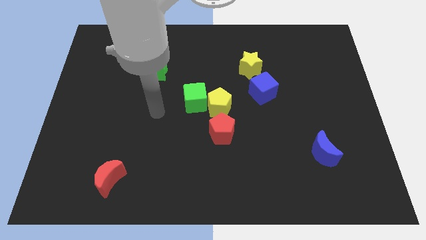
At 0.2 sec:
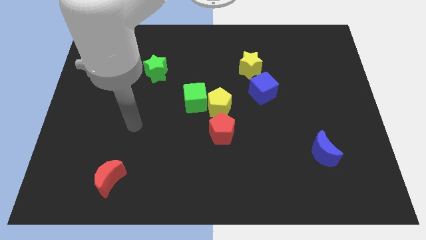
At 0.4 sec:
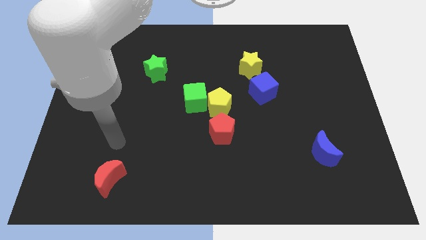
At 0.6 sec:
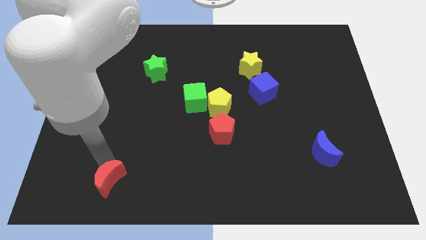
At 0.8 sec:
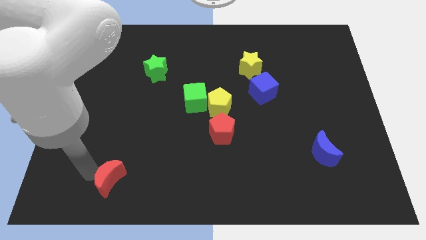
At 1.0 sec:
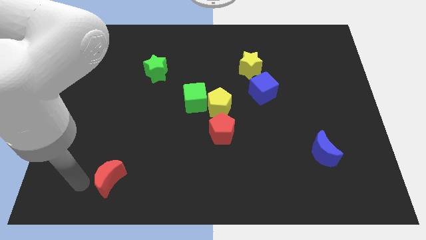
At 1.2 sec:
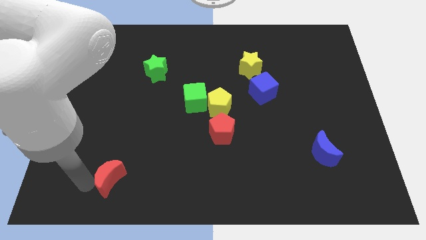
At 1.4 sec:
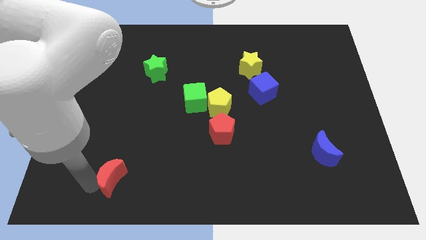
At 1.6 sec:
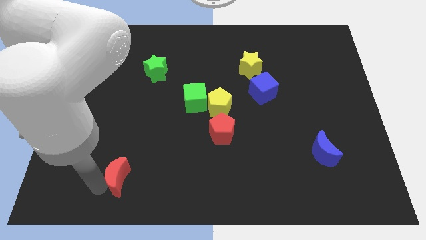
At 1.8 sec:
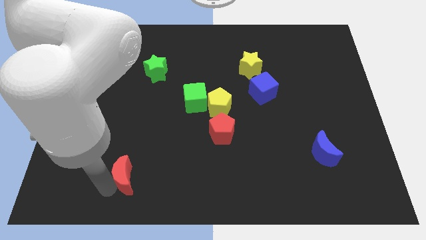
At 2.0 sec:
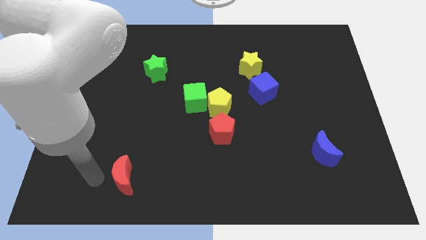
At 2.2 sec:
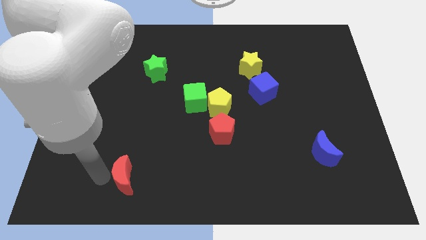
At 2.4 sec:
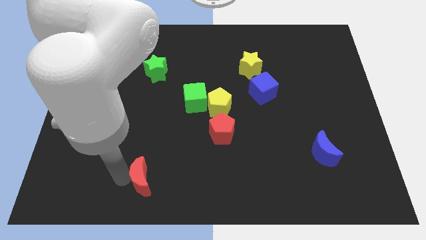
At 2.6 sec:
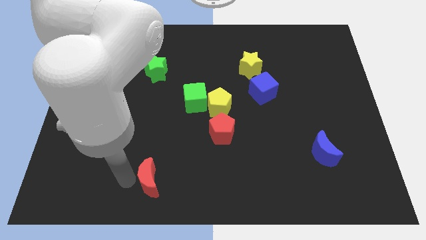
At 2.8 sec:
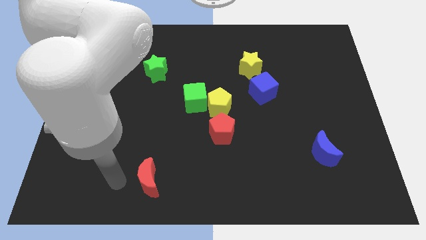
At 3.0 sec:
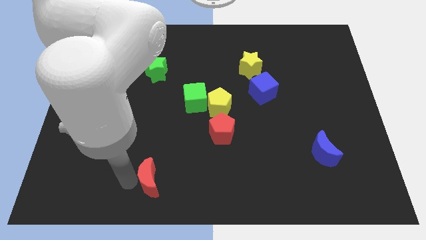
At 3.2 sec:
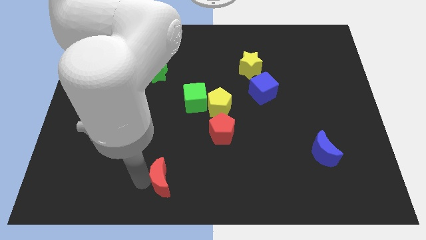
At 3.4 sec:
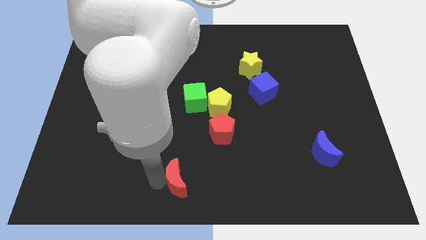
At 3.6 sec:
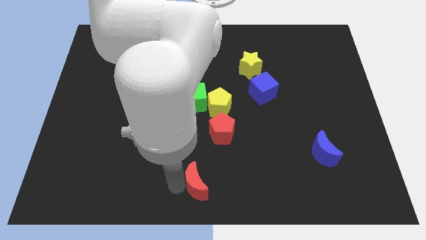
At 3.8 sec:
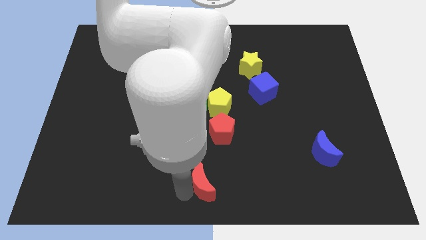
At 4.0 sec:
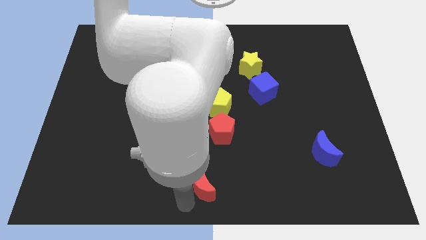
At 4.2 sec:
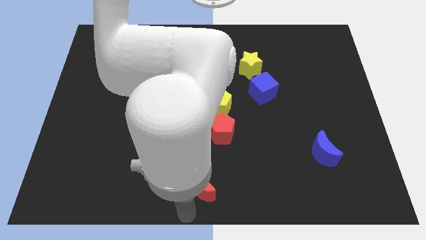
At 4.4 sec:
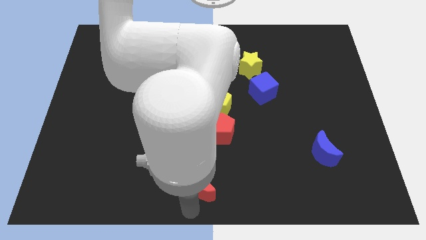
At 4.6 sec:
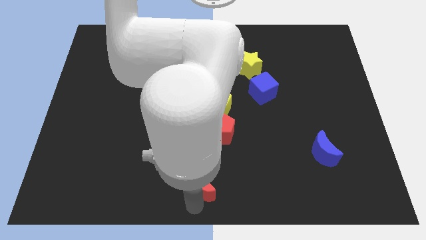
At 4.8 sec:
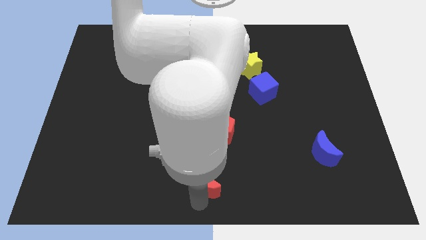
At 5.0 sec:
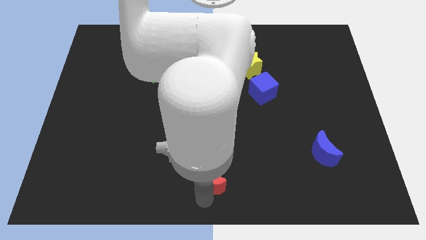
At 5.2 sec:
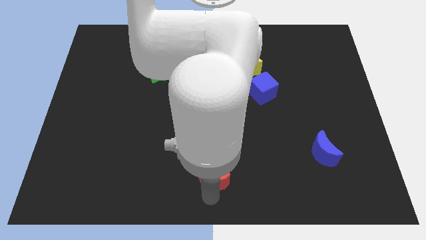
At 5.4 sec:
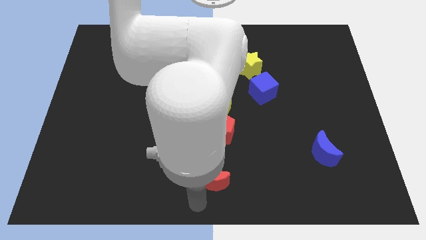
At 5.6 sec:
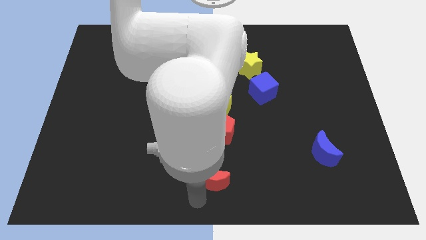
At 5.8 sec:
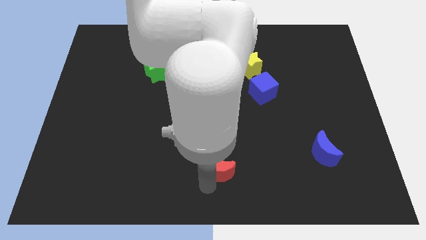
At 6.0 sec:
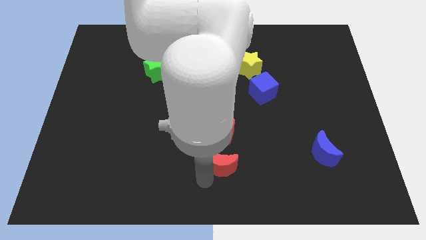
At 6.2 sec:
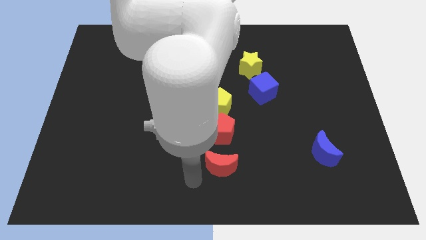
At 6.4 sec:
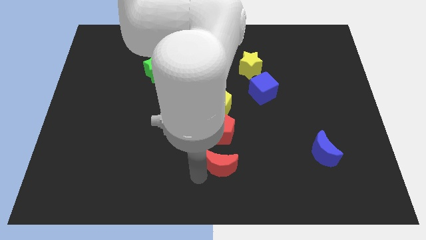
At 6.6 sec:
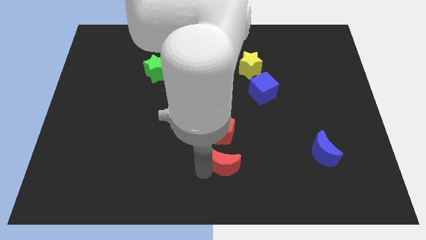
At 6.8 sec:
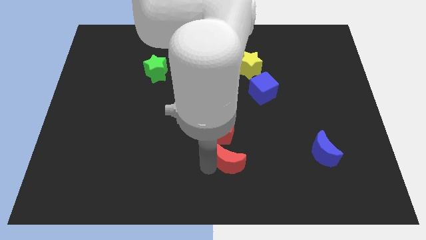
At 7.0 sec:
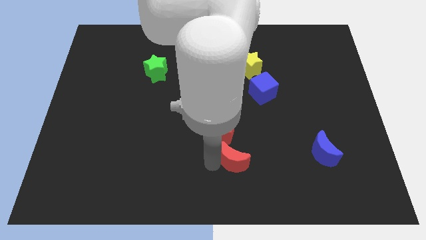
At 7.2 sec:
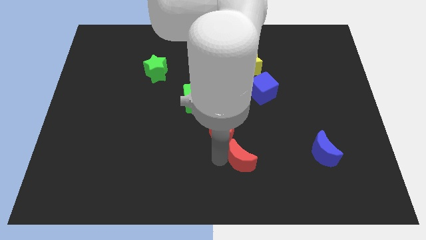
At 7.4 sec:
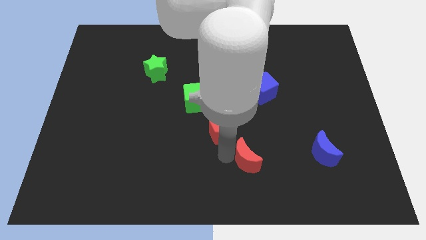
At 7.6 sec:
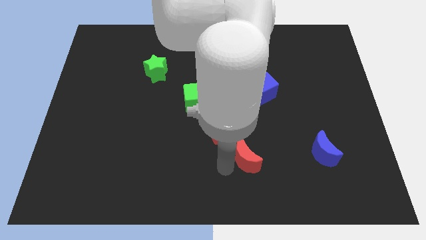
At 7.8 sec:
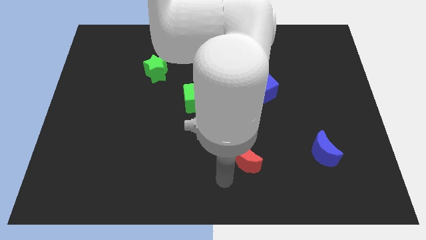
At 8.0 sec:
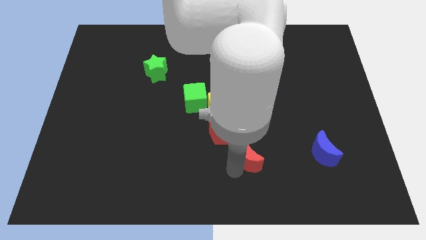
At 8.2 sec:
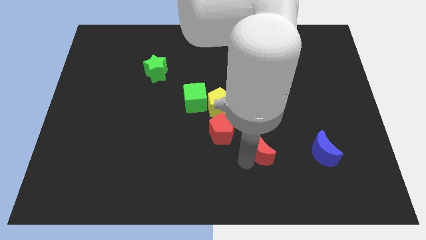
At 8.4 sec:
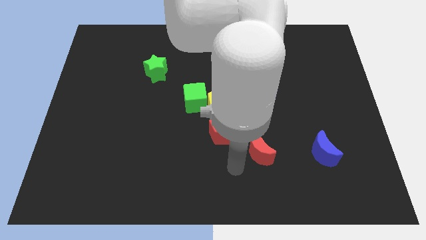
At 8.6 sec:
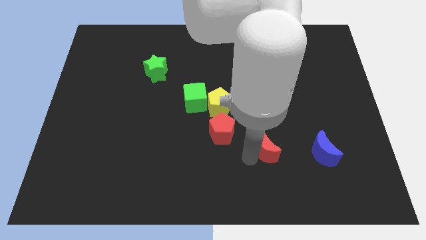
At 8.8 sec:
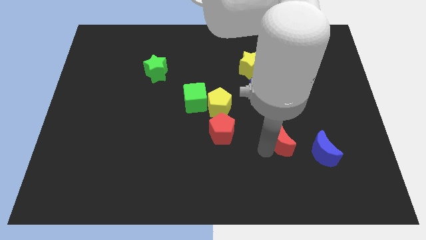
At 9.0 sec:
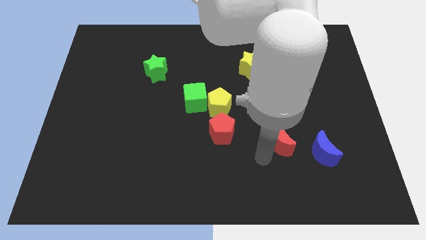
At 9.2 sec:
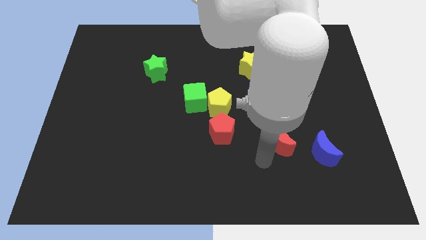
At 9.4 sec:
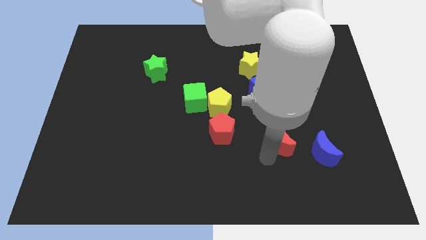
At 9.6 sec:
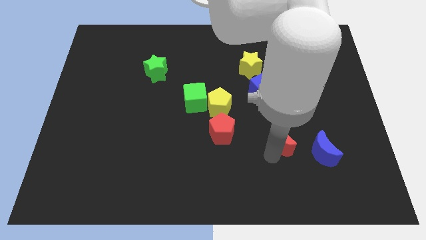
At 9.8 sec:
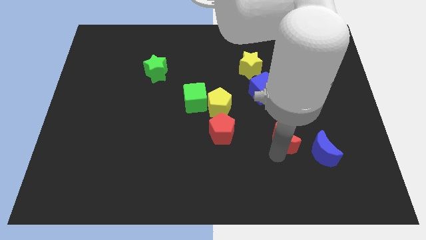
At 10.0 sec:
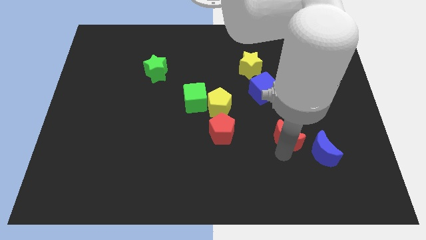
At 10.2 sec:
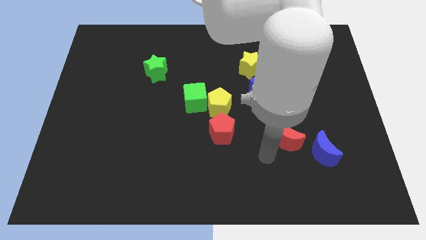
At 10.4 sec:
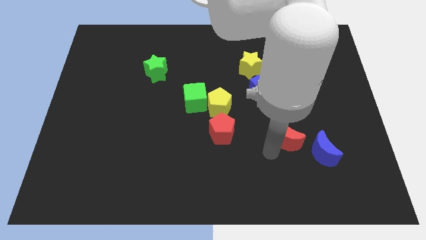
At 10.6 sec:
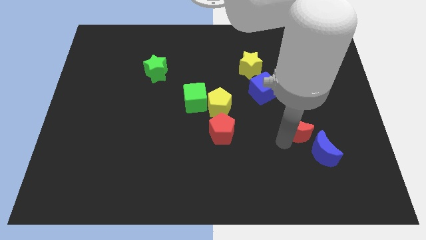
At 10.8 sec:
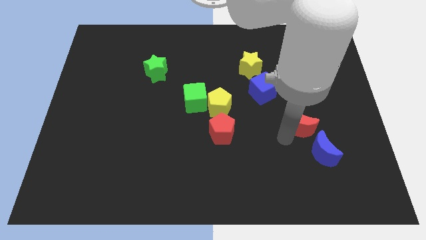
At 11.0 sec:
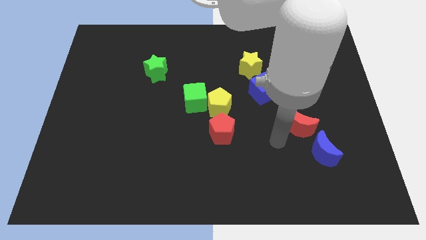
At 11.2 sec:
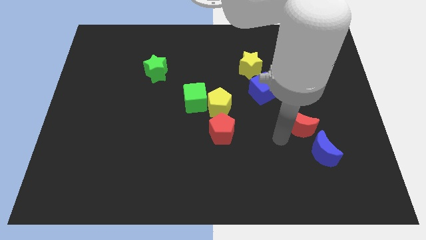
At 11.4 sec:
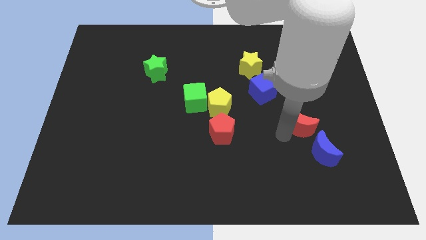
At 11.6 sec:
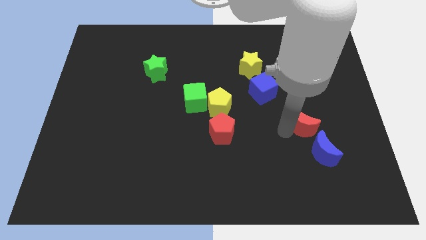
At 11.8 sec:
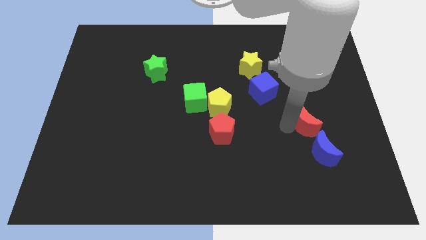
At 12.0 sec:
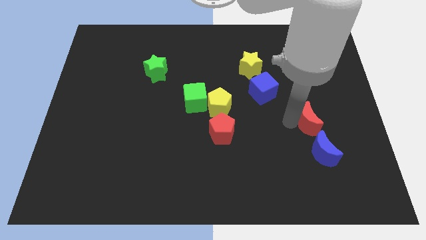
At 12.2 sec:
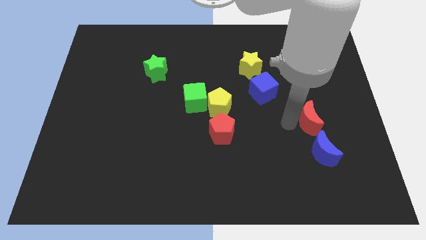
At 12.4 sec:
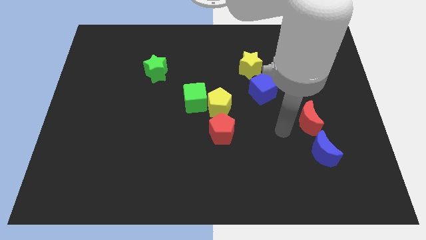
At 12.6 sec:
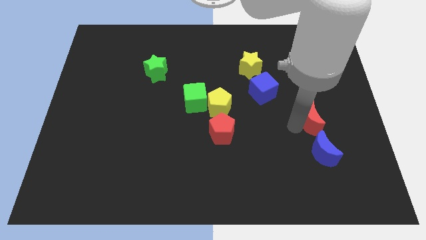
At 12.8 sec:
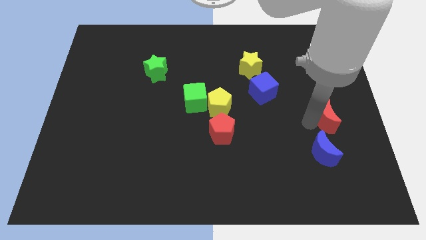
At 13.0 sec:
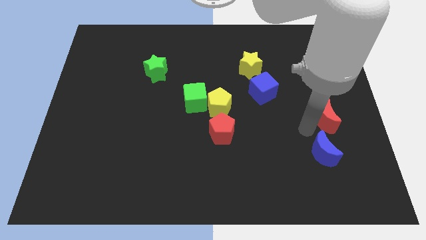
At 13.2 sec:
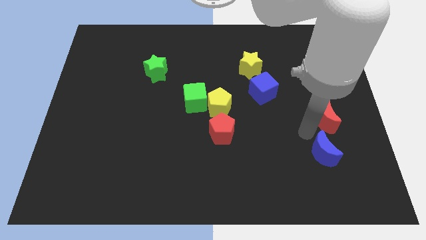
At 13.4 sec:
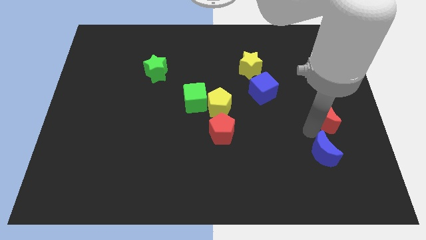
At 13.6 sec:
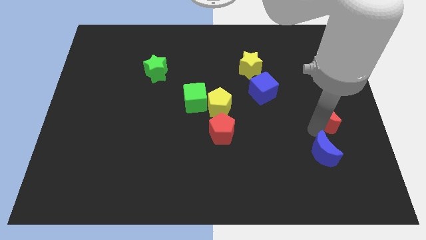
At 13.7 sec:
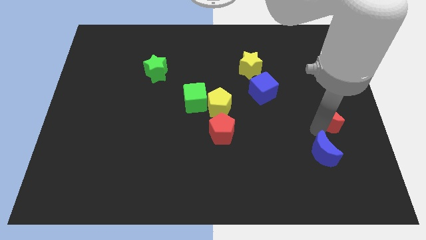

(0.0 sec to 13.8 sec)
push the red moon to the right side of the board
